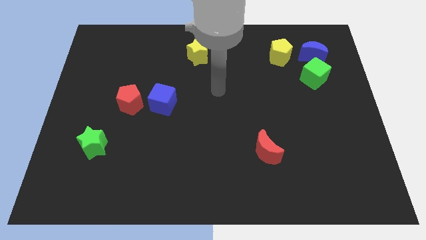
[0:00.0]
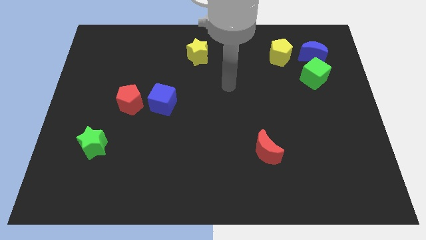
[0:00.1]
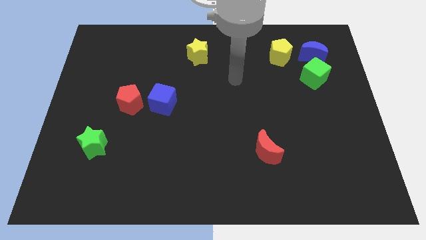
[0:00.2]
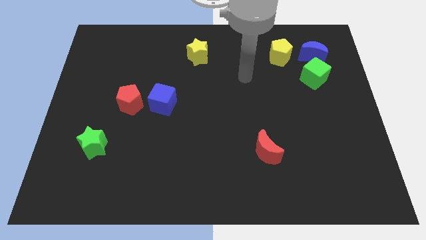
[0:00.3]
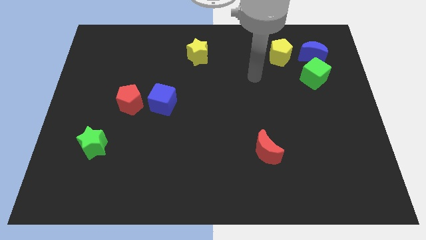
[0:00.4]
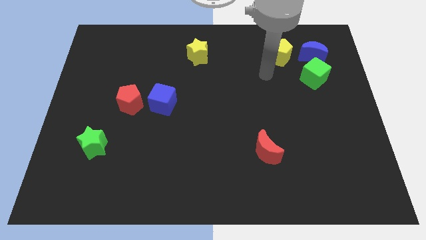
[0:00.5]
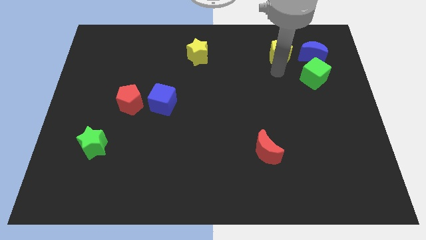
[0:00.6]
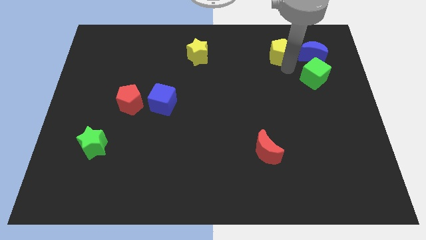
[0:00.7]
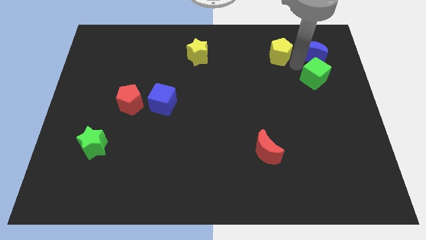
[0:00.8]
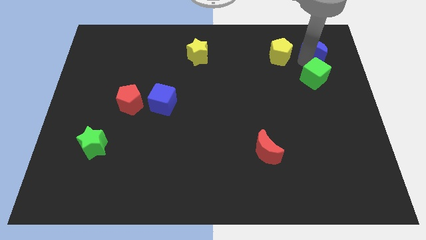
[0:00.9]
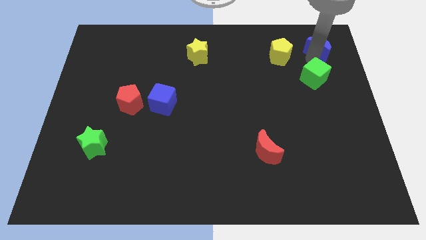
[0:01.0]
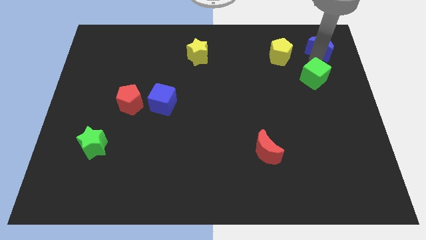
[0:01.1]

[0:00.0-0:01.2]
move the green cube away from the blue moon

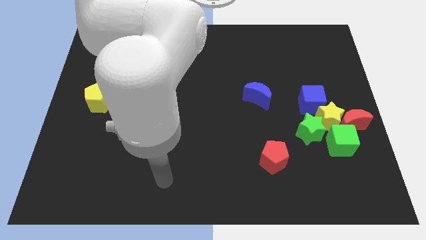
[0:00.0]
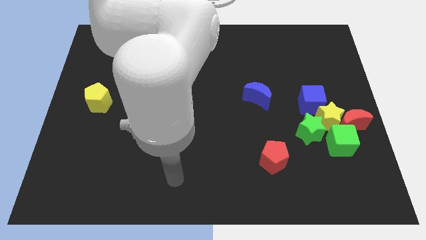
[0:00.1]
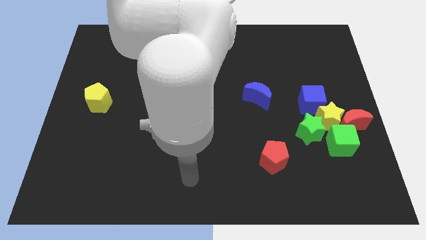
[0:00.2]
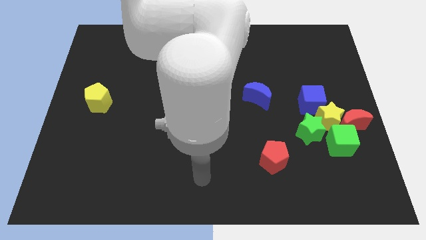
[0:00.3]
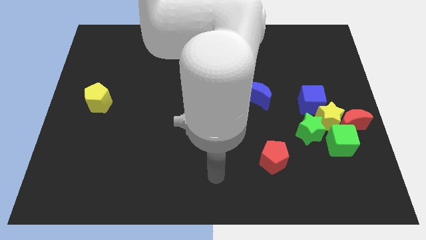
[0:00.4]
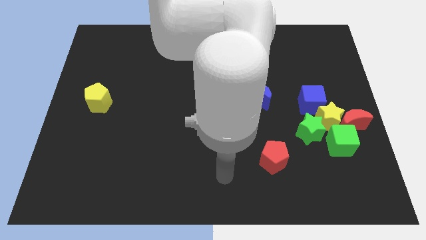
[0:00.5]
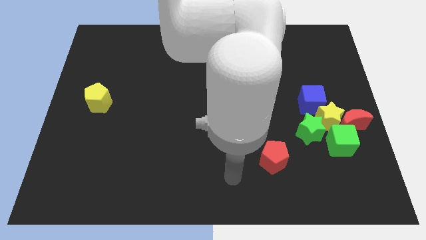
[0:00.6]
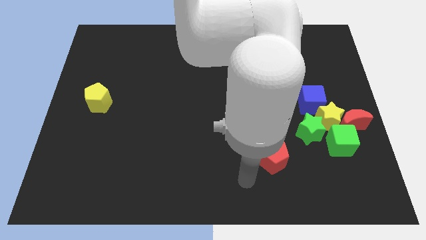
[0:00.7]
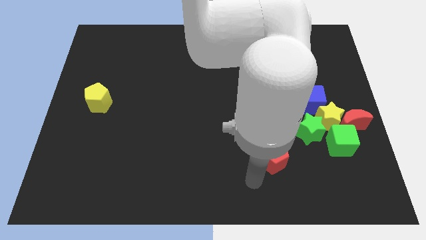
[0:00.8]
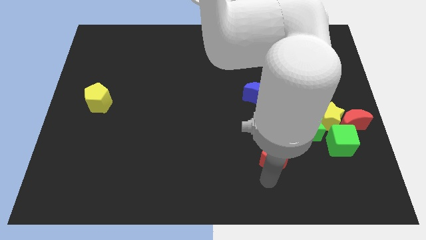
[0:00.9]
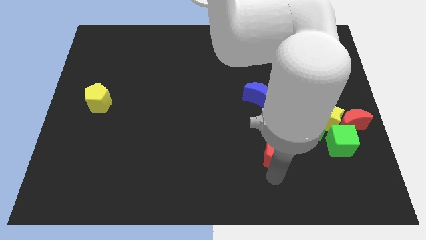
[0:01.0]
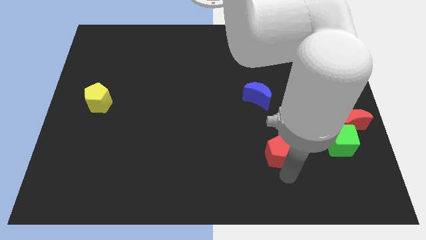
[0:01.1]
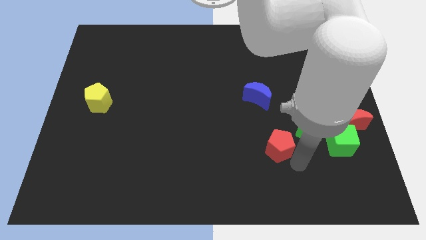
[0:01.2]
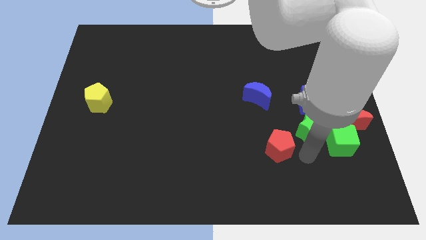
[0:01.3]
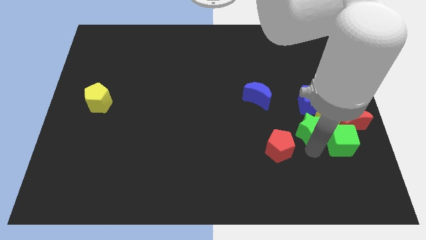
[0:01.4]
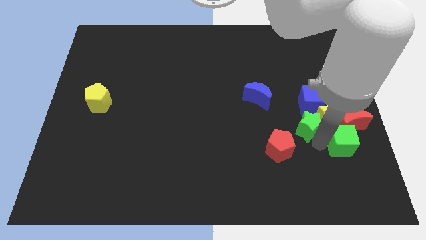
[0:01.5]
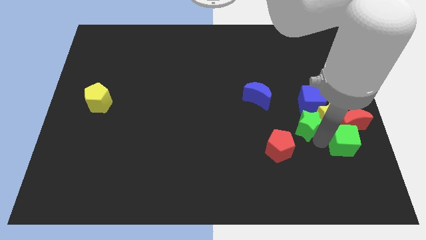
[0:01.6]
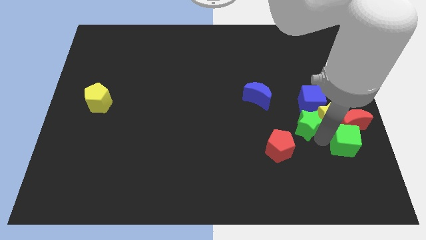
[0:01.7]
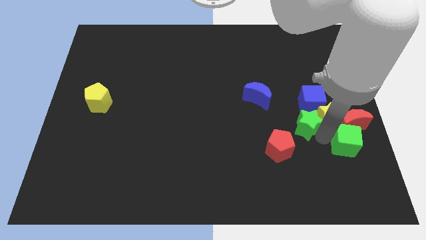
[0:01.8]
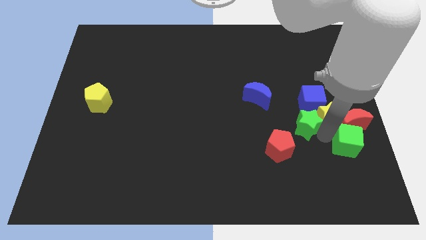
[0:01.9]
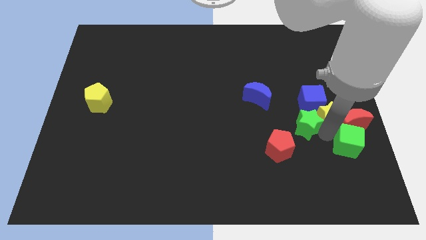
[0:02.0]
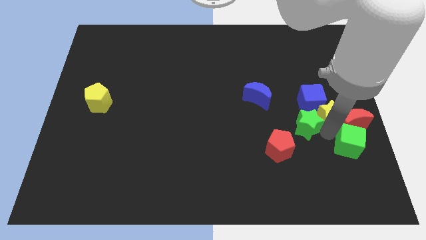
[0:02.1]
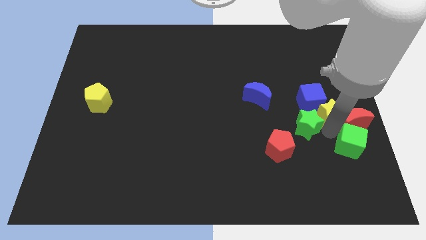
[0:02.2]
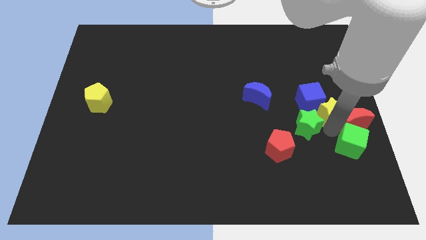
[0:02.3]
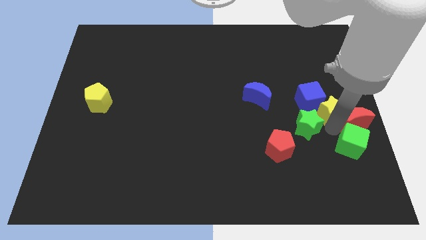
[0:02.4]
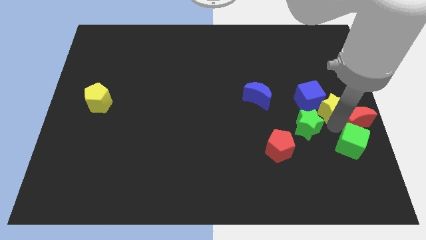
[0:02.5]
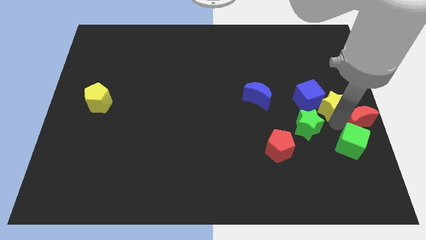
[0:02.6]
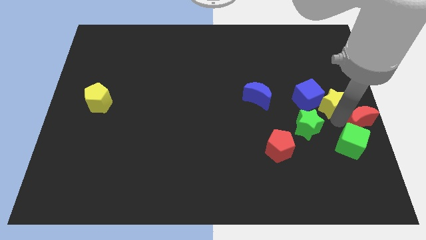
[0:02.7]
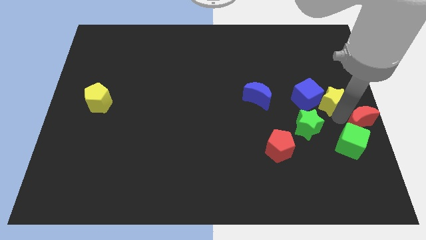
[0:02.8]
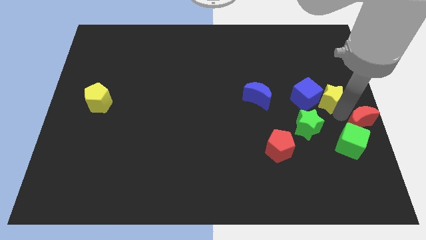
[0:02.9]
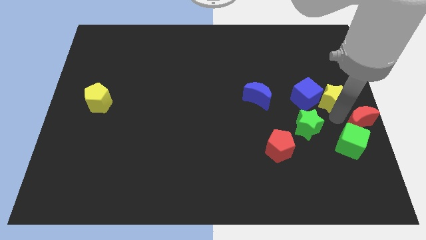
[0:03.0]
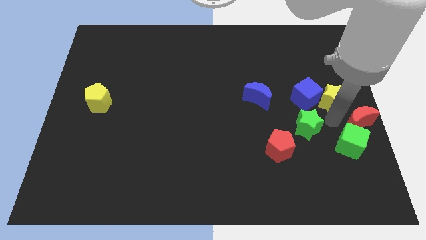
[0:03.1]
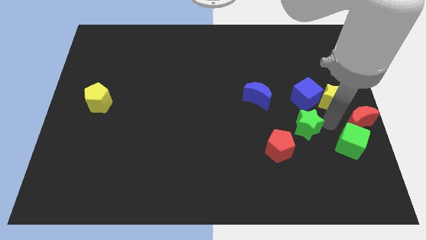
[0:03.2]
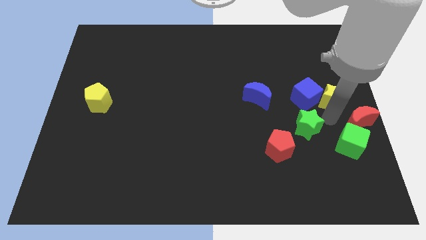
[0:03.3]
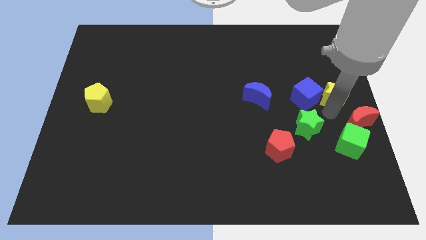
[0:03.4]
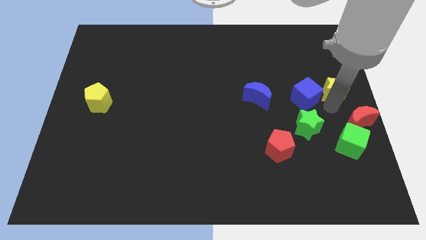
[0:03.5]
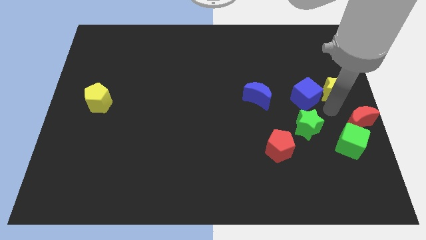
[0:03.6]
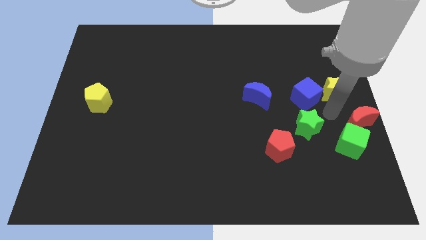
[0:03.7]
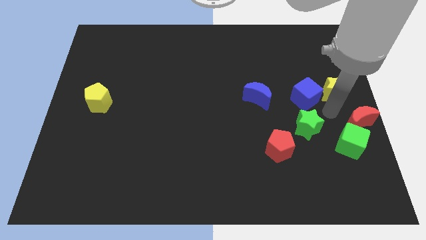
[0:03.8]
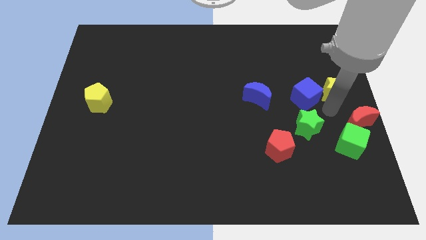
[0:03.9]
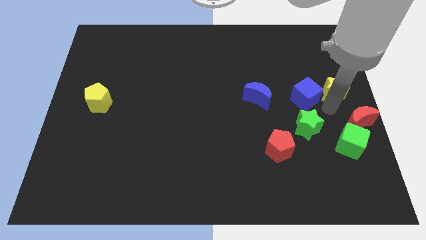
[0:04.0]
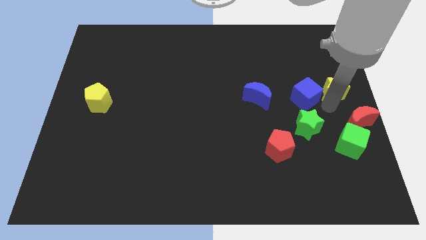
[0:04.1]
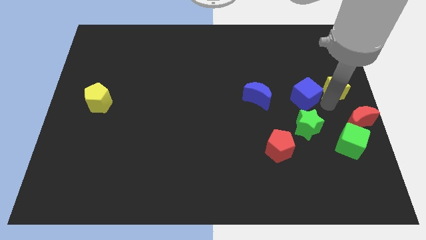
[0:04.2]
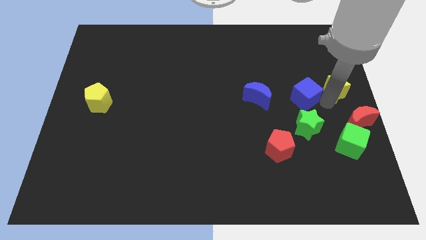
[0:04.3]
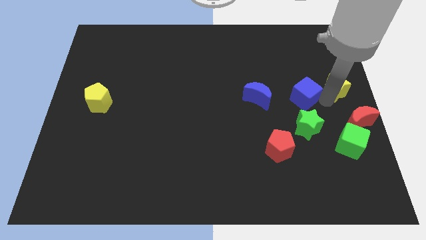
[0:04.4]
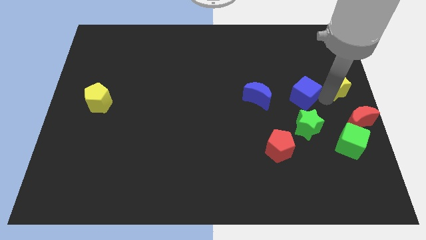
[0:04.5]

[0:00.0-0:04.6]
pull the yellow star apart from the group

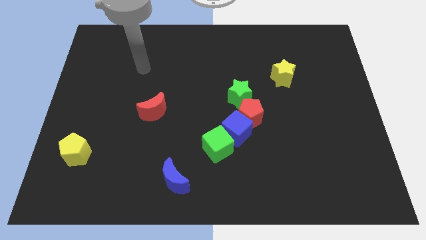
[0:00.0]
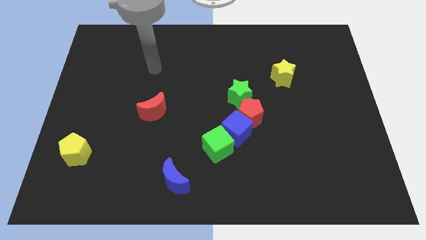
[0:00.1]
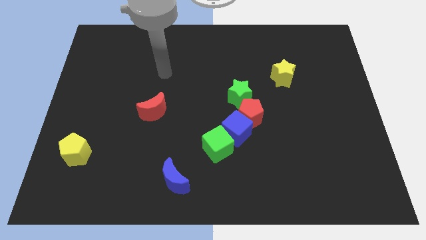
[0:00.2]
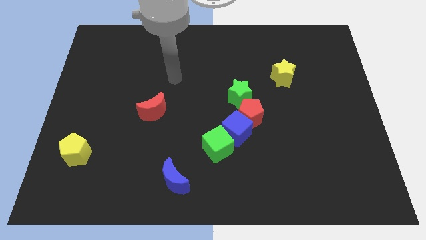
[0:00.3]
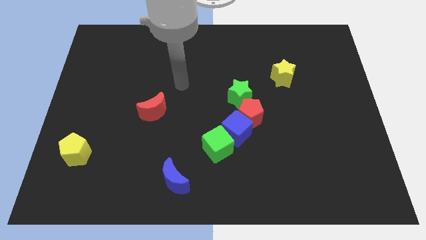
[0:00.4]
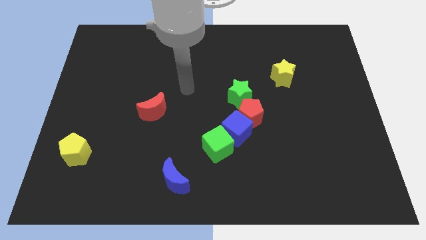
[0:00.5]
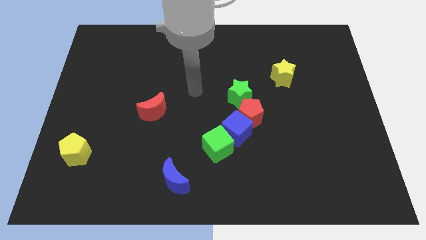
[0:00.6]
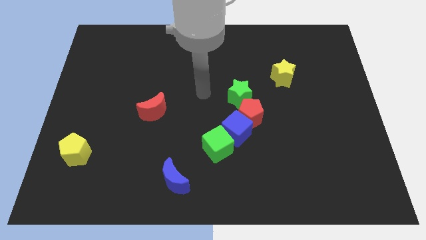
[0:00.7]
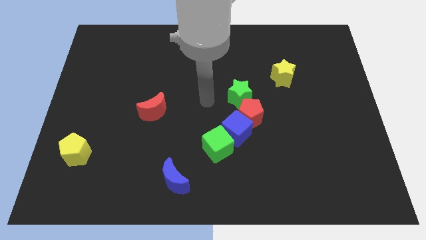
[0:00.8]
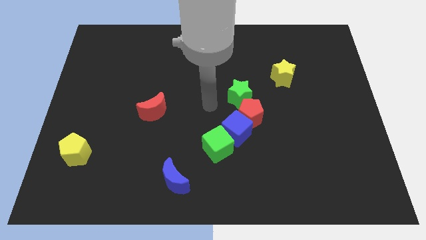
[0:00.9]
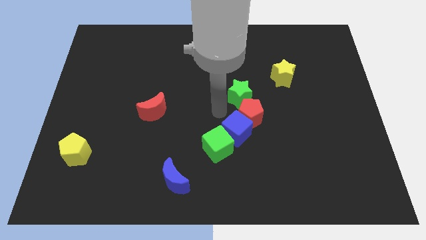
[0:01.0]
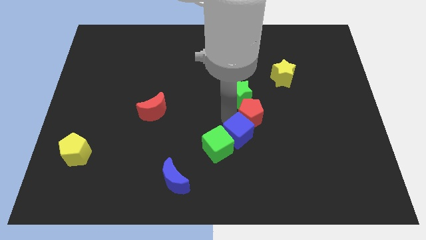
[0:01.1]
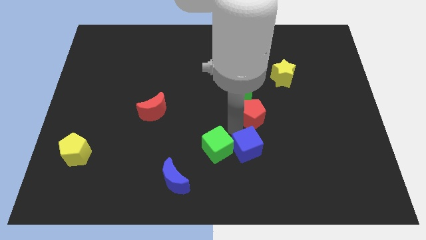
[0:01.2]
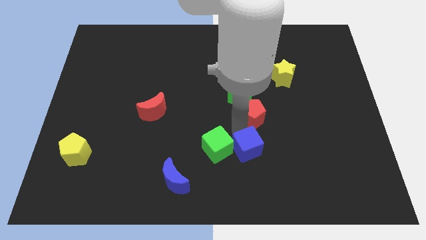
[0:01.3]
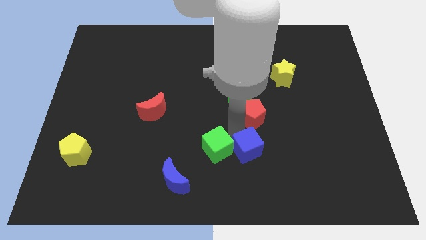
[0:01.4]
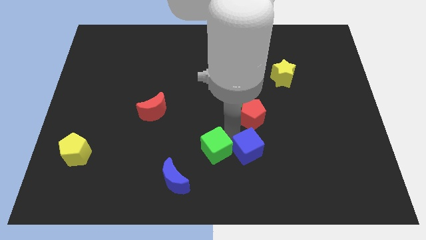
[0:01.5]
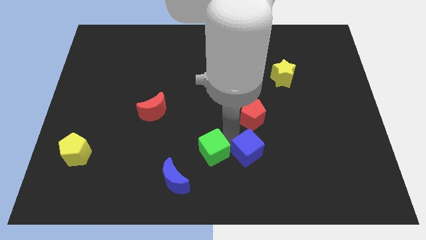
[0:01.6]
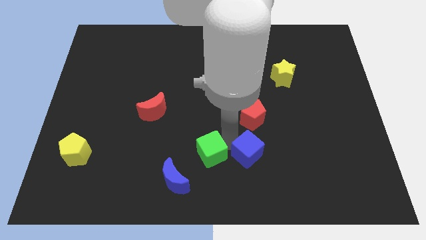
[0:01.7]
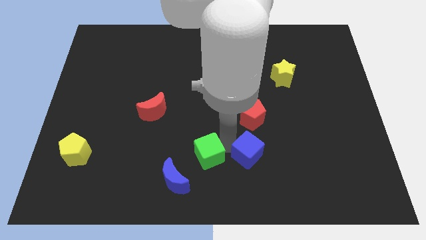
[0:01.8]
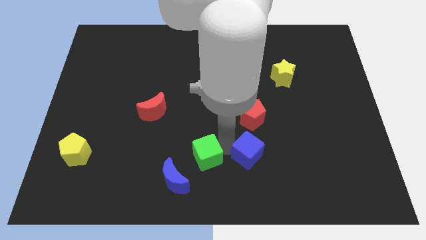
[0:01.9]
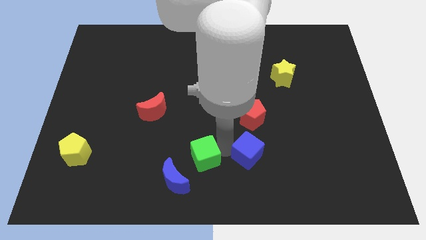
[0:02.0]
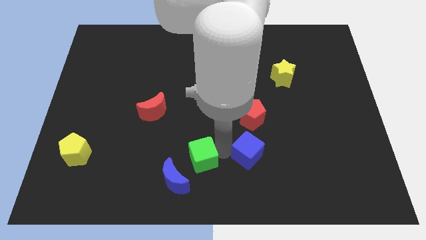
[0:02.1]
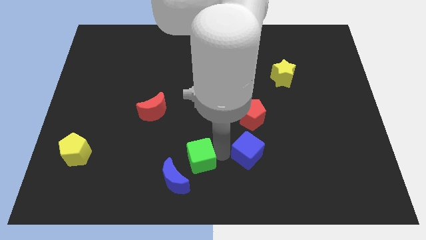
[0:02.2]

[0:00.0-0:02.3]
move the green cube away from the blue cube

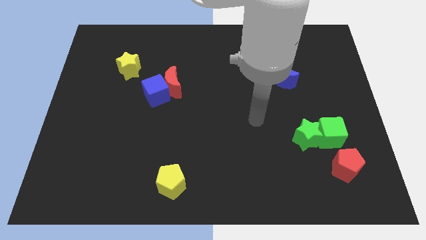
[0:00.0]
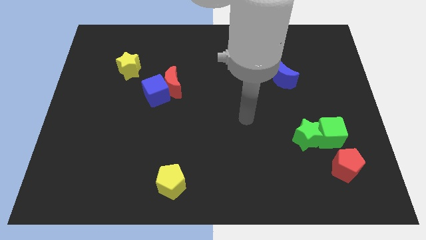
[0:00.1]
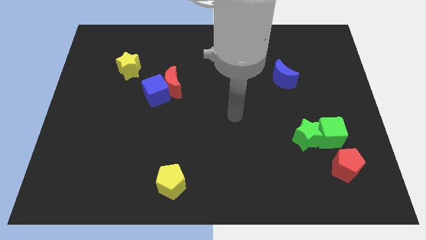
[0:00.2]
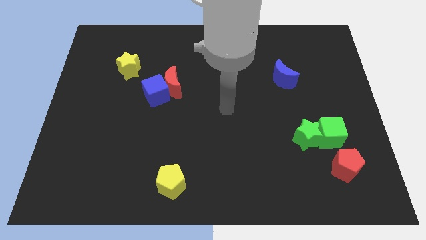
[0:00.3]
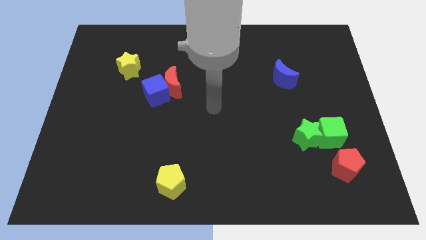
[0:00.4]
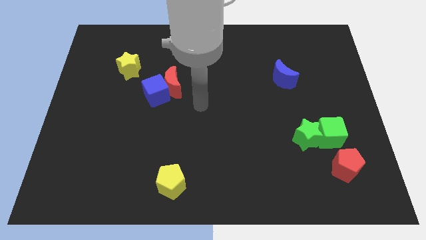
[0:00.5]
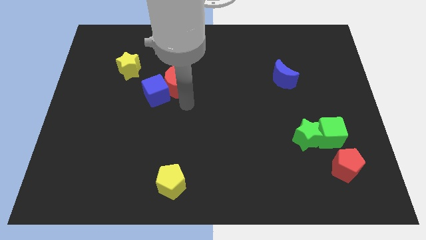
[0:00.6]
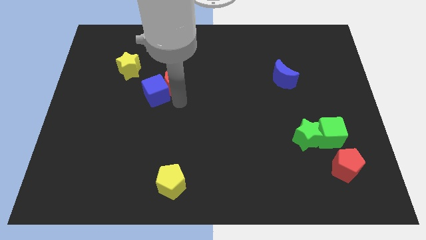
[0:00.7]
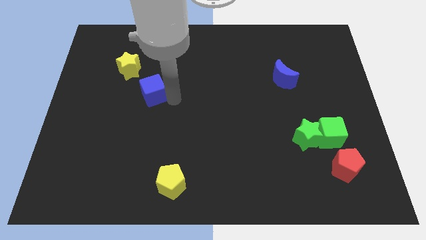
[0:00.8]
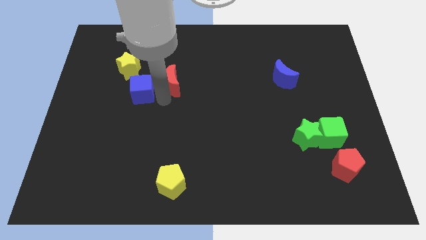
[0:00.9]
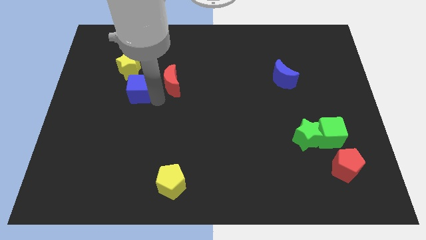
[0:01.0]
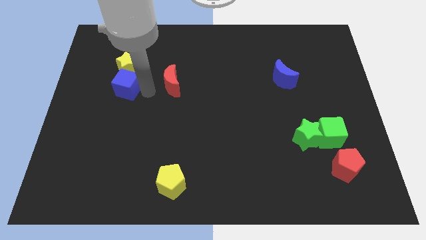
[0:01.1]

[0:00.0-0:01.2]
move the red moon away from the blue cube

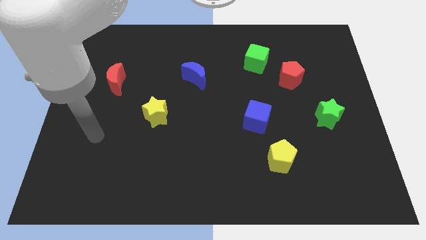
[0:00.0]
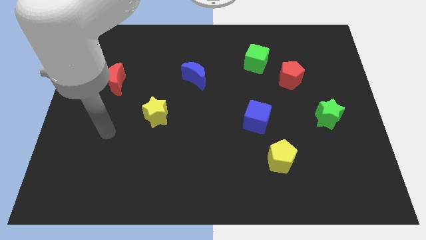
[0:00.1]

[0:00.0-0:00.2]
separate the red pentagon from the green cube
